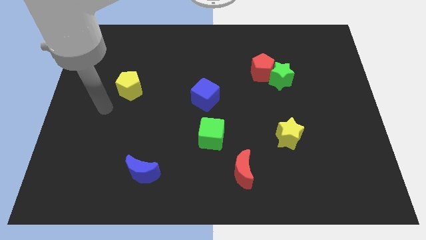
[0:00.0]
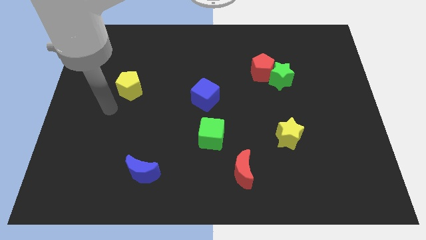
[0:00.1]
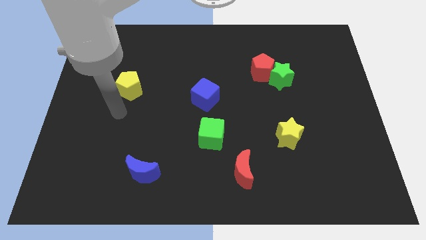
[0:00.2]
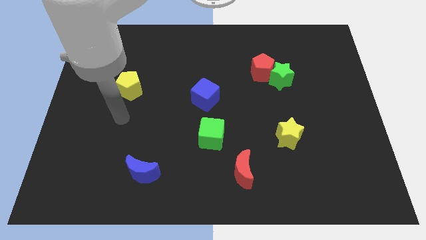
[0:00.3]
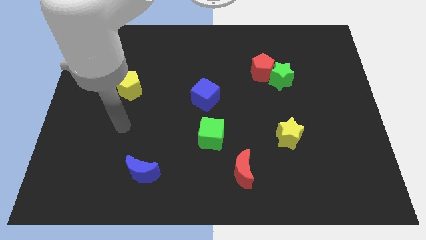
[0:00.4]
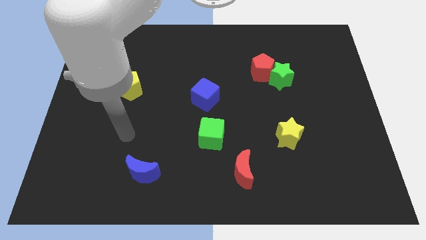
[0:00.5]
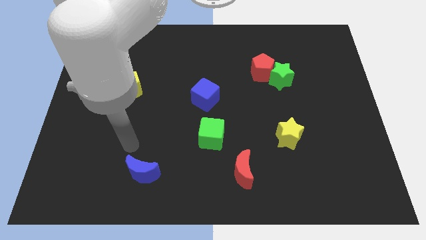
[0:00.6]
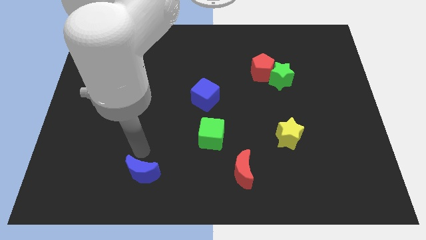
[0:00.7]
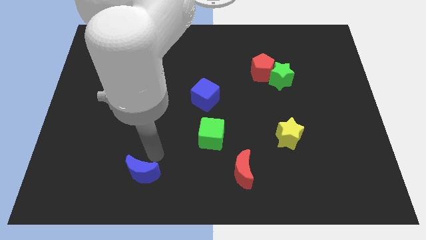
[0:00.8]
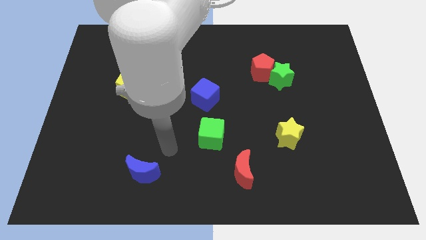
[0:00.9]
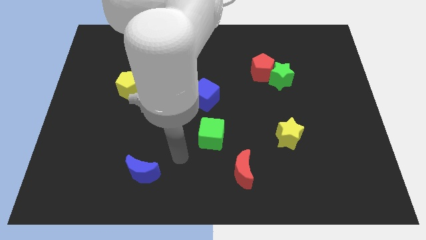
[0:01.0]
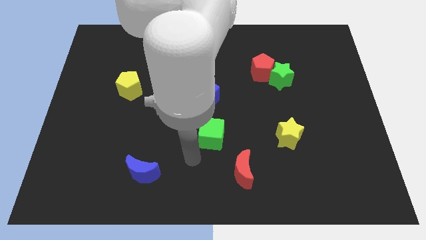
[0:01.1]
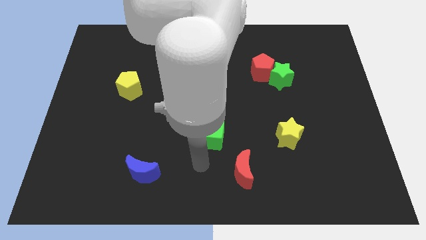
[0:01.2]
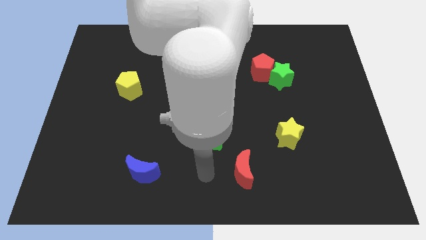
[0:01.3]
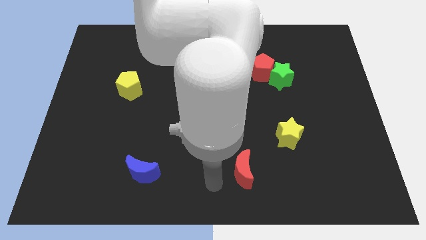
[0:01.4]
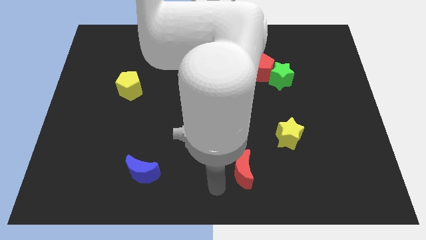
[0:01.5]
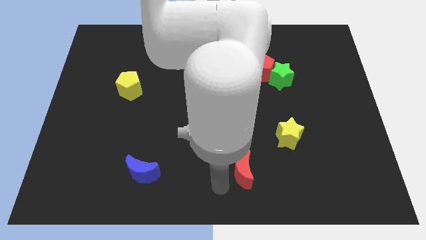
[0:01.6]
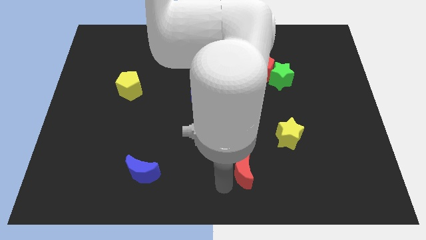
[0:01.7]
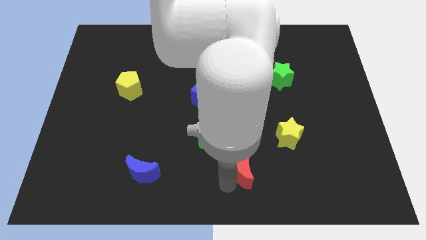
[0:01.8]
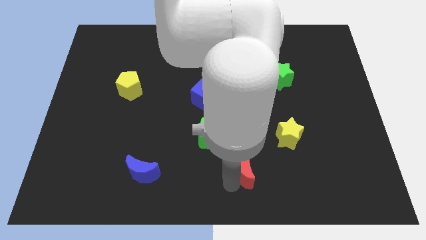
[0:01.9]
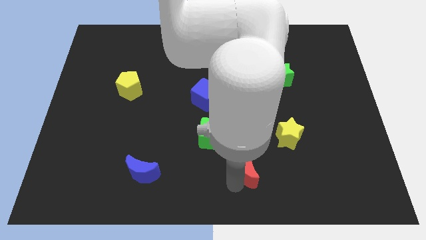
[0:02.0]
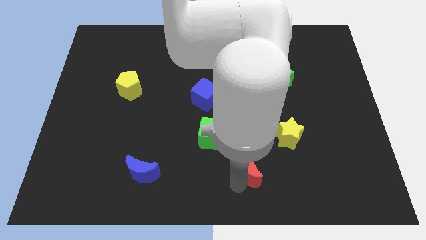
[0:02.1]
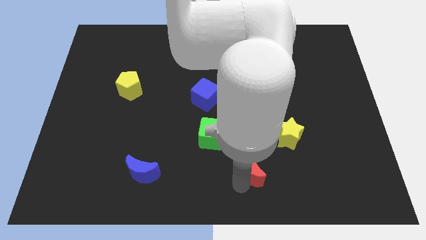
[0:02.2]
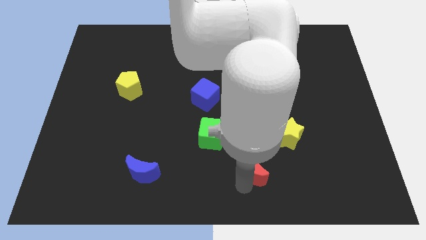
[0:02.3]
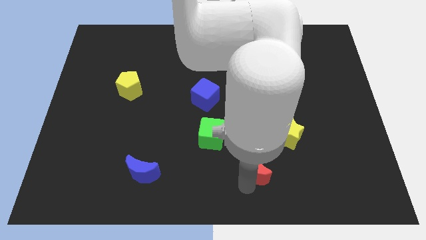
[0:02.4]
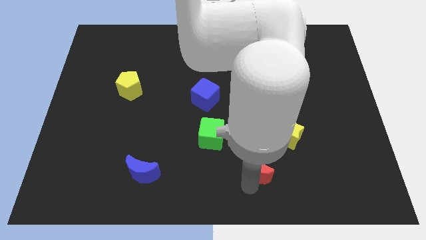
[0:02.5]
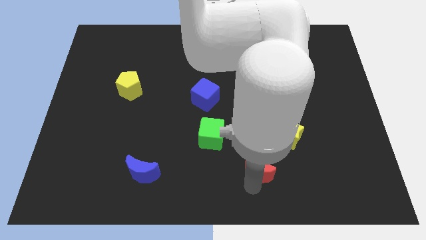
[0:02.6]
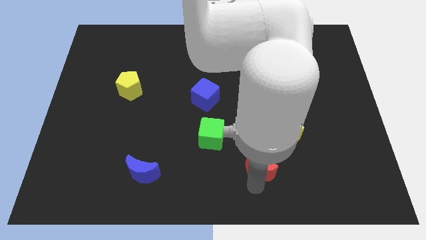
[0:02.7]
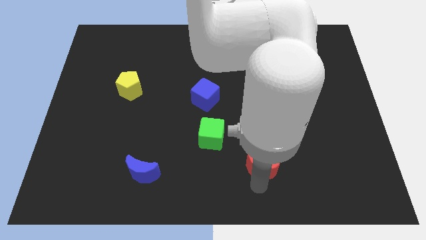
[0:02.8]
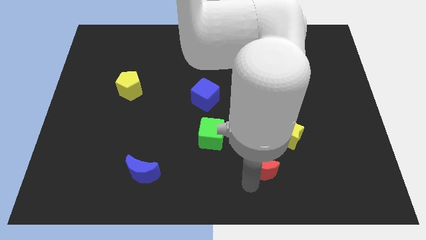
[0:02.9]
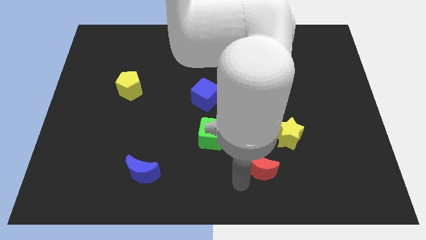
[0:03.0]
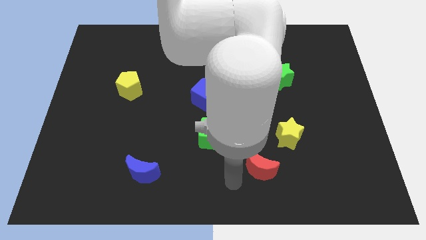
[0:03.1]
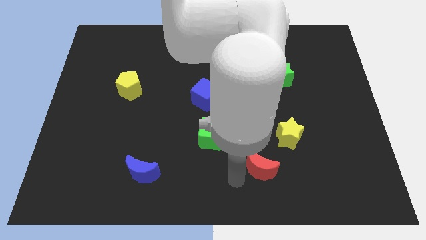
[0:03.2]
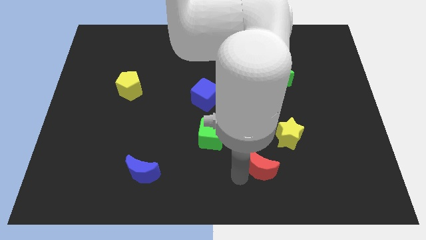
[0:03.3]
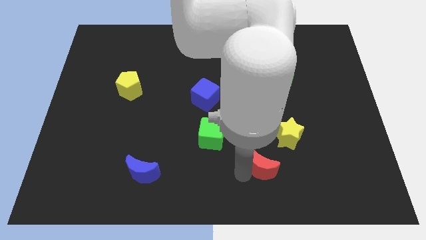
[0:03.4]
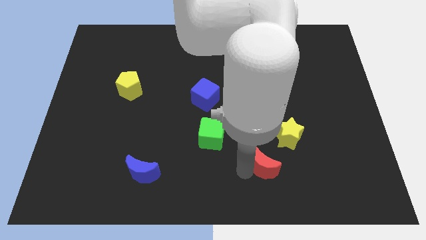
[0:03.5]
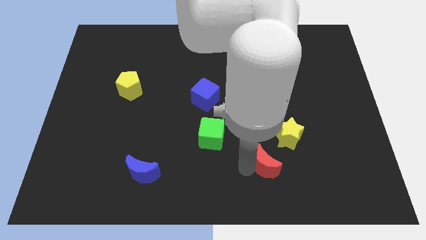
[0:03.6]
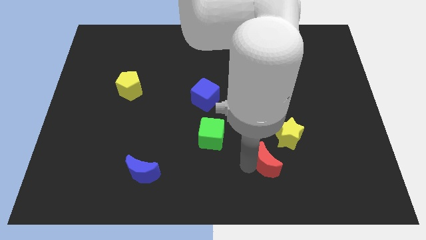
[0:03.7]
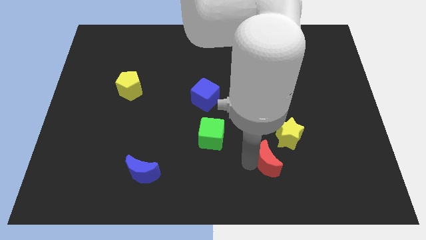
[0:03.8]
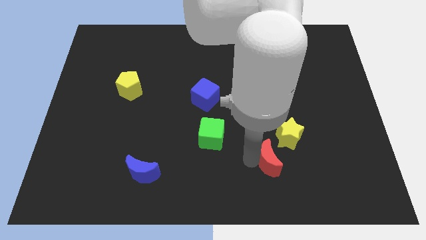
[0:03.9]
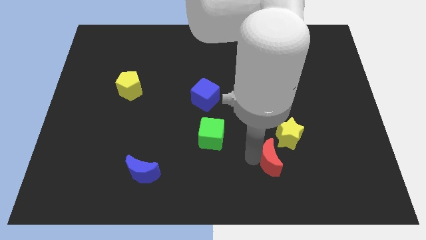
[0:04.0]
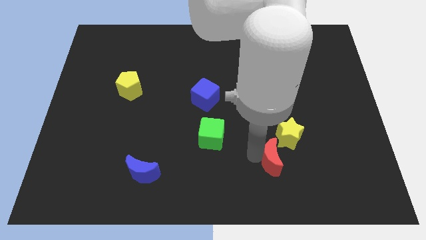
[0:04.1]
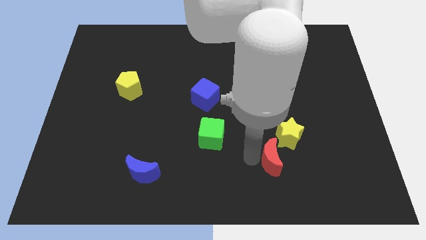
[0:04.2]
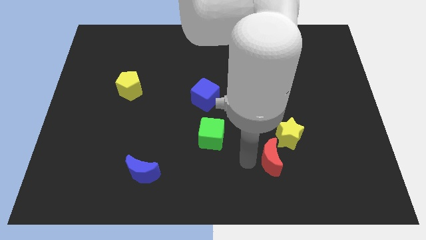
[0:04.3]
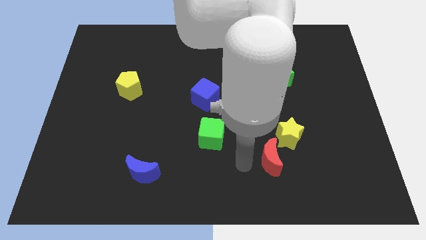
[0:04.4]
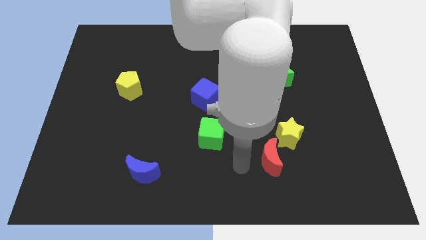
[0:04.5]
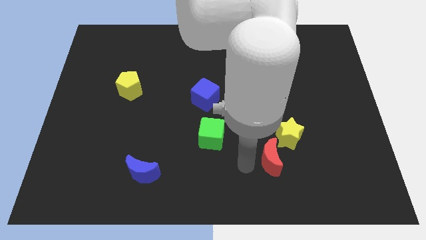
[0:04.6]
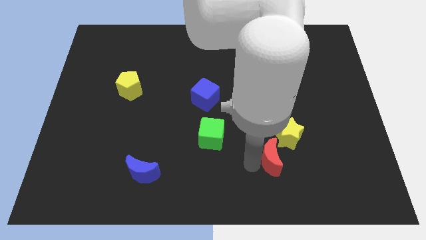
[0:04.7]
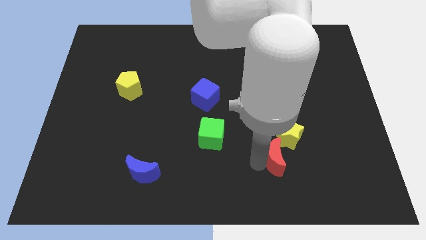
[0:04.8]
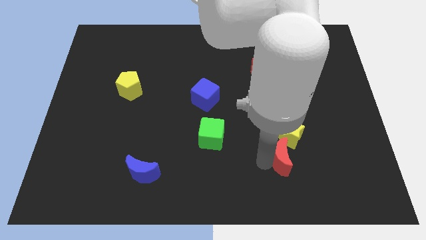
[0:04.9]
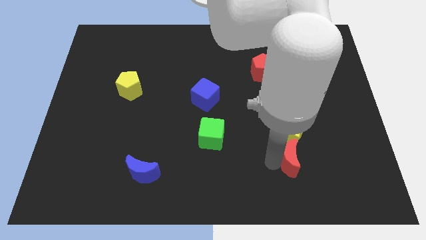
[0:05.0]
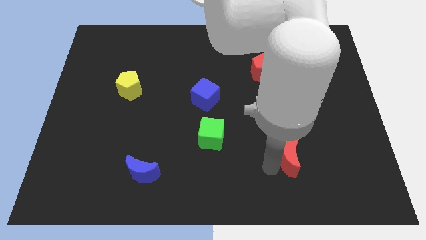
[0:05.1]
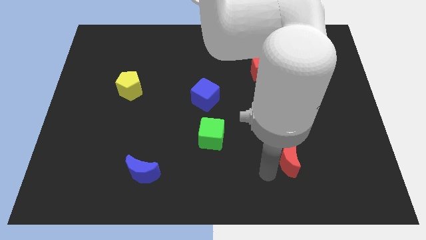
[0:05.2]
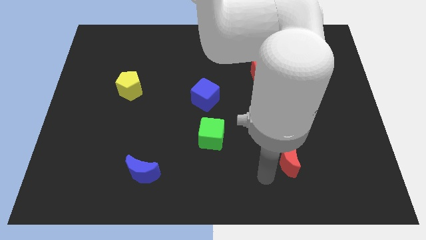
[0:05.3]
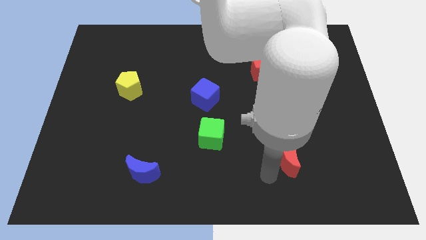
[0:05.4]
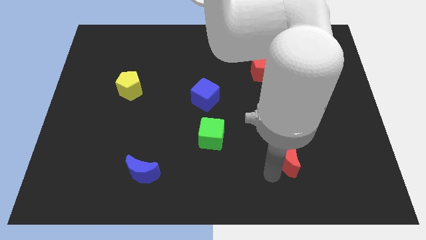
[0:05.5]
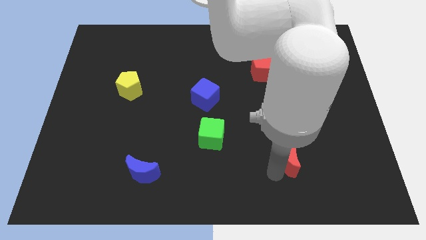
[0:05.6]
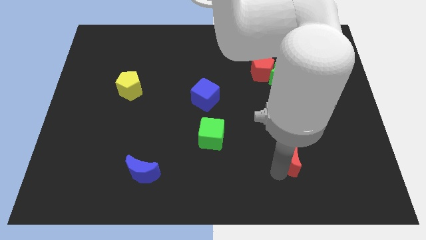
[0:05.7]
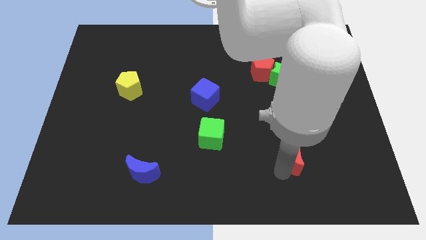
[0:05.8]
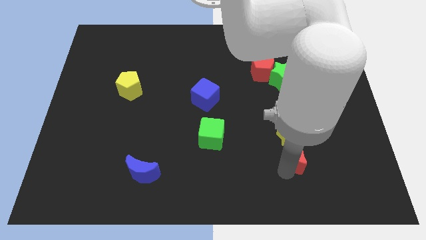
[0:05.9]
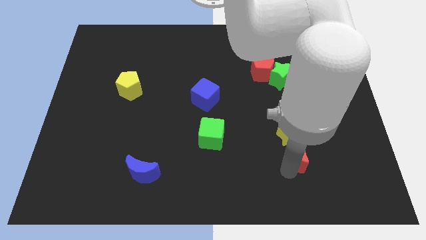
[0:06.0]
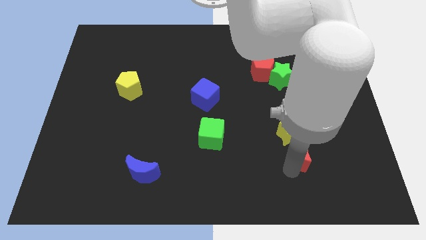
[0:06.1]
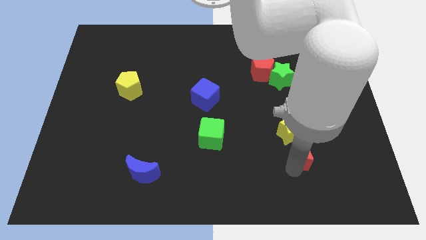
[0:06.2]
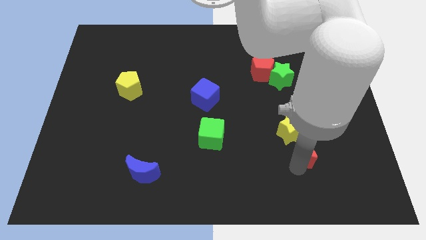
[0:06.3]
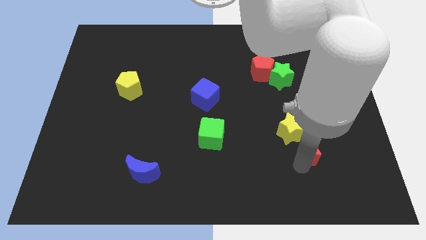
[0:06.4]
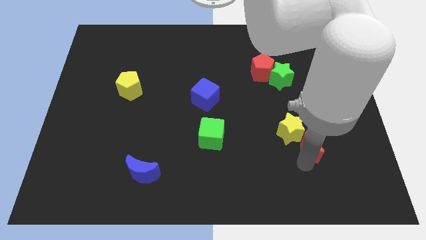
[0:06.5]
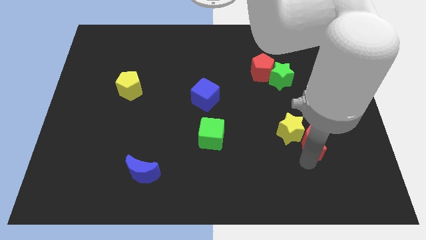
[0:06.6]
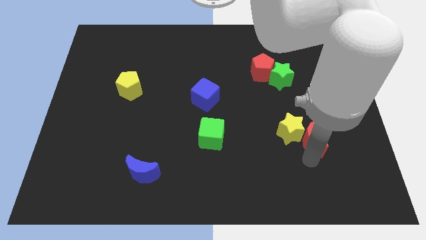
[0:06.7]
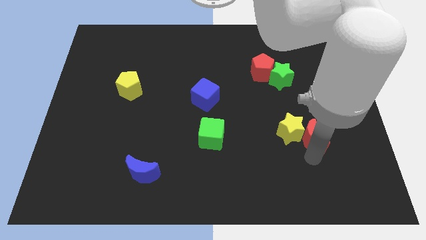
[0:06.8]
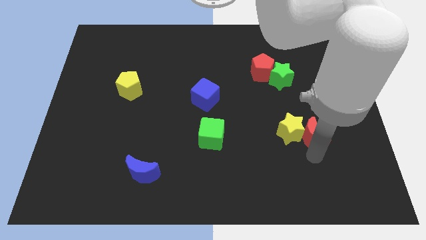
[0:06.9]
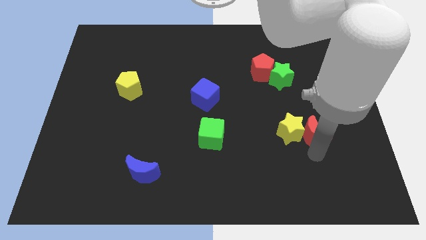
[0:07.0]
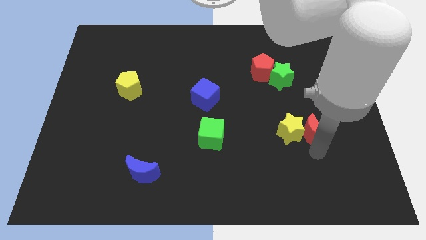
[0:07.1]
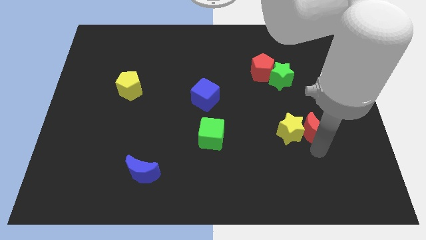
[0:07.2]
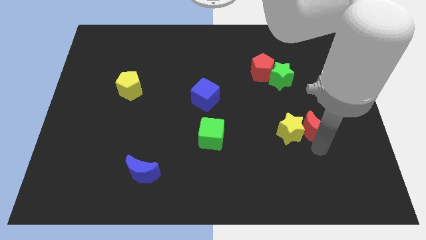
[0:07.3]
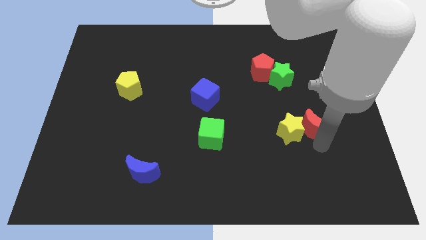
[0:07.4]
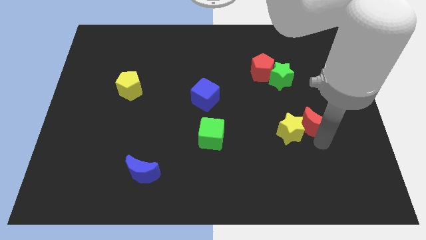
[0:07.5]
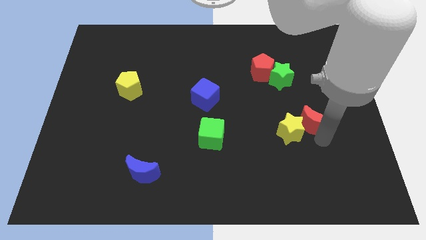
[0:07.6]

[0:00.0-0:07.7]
move the red moon up and to the right diagonally
